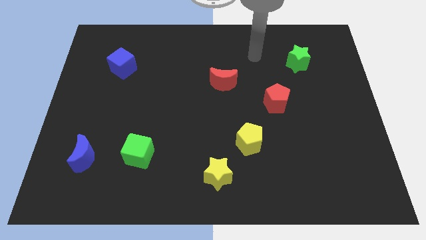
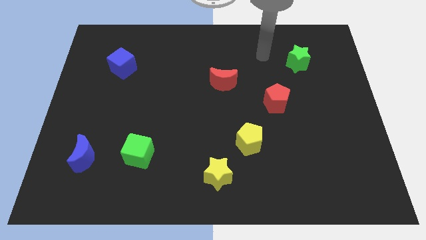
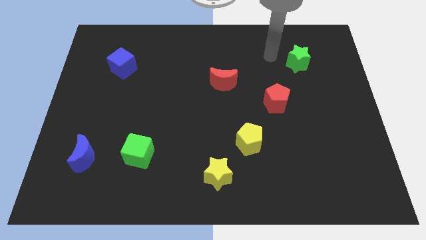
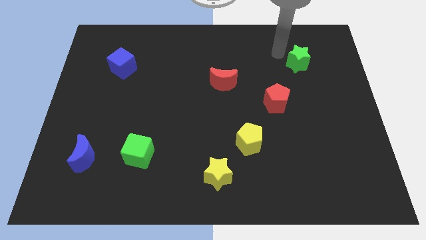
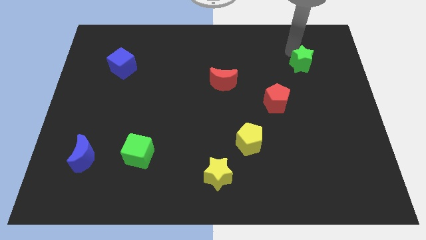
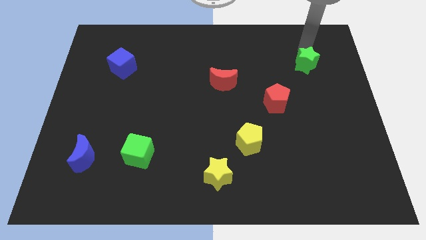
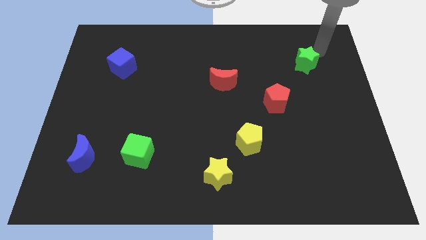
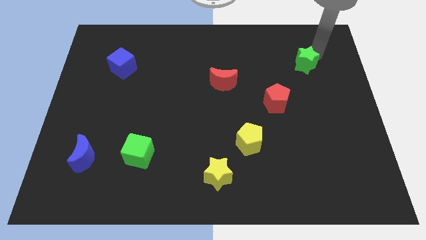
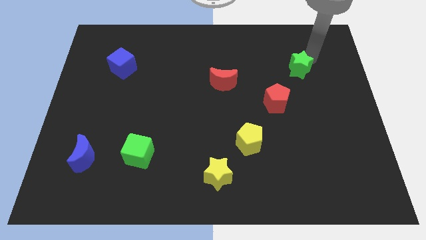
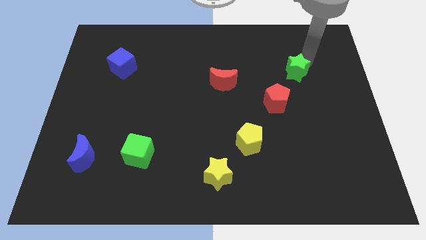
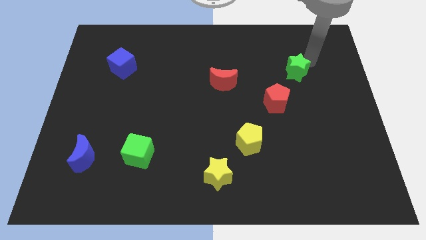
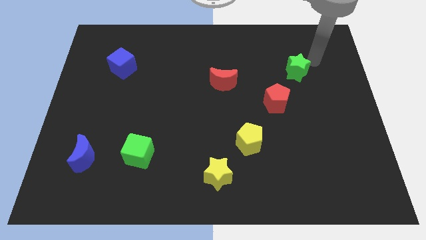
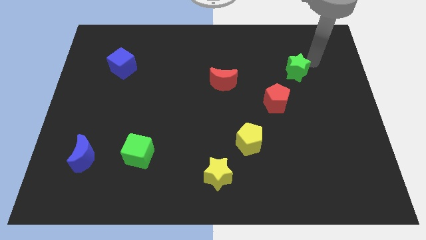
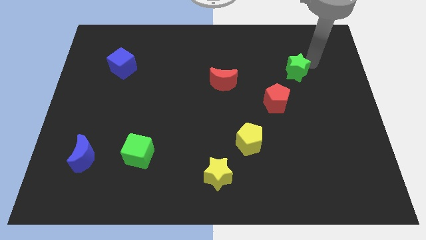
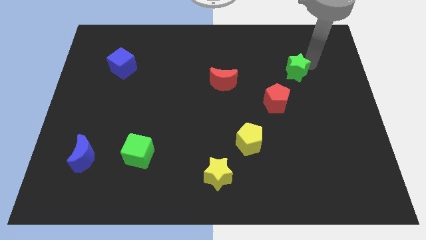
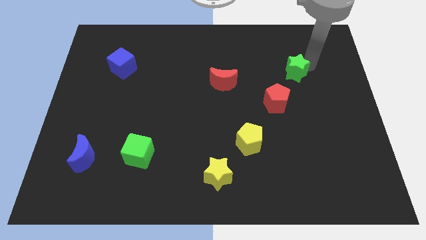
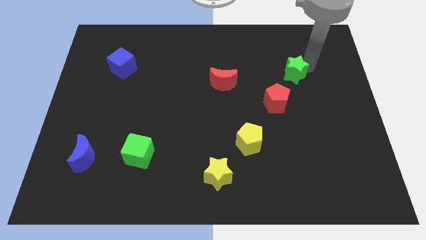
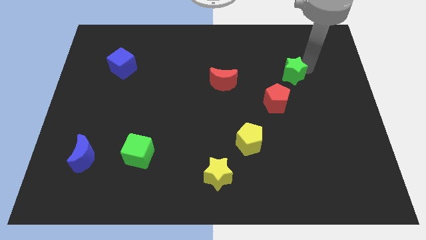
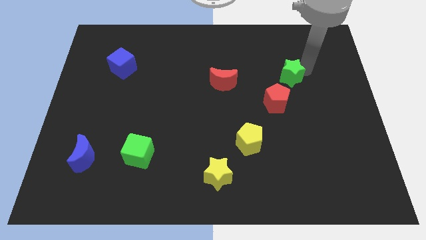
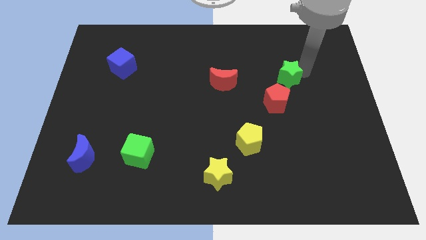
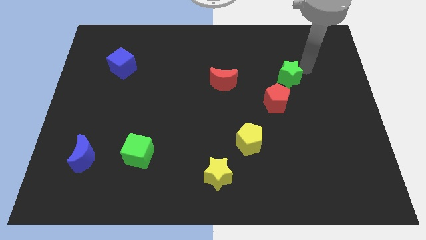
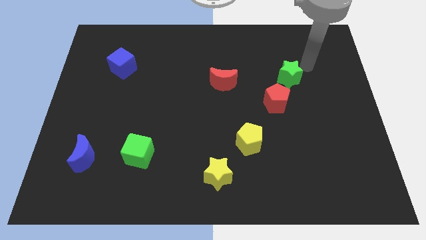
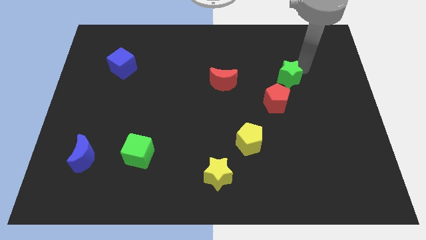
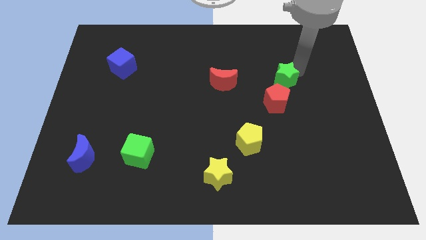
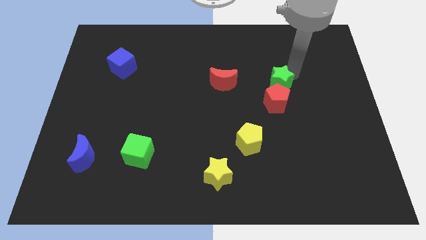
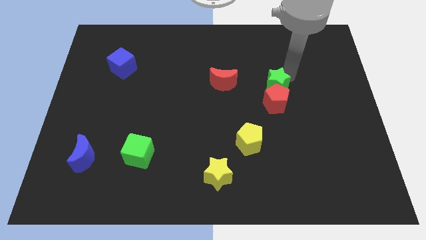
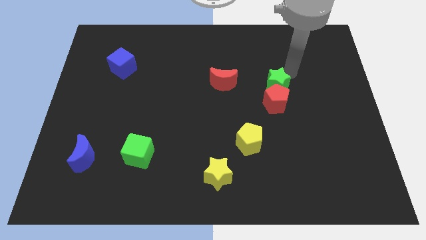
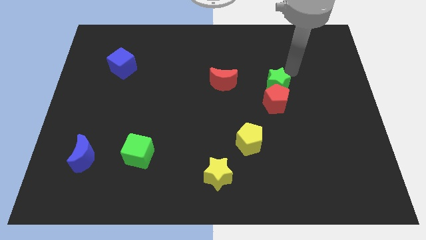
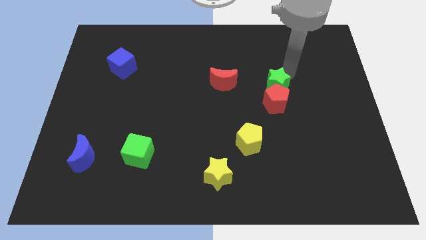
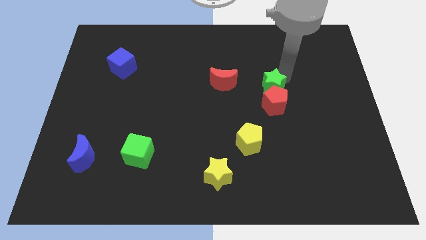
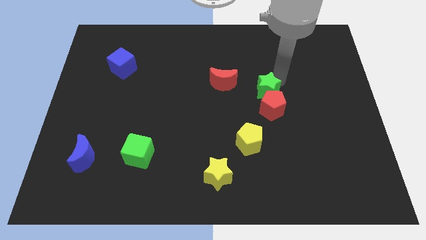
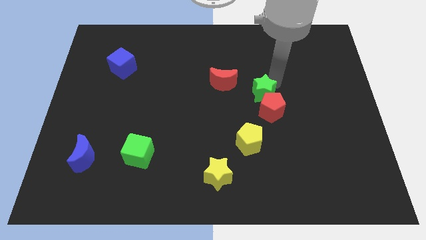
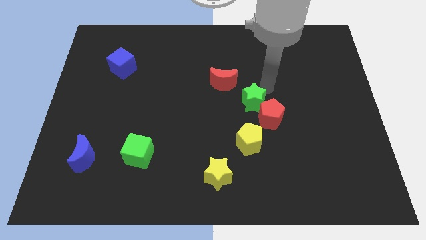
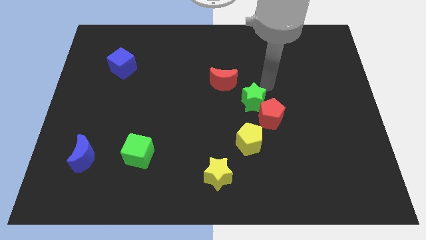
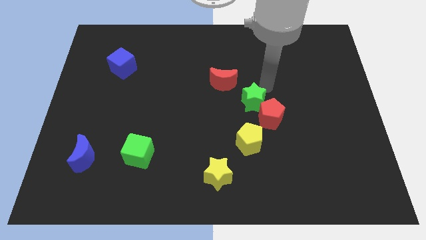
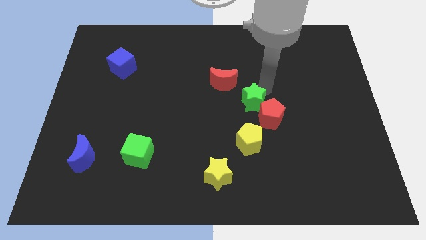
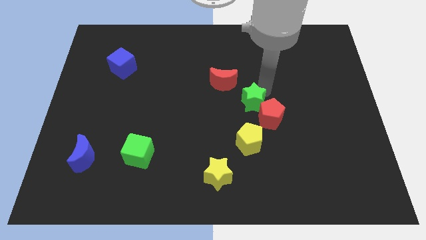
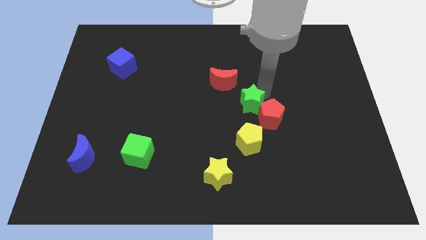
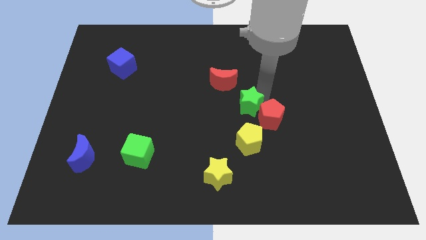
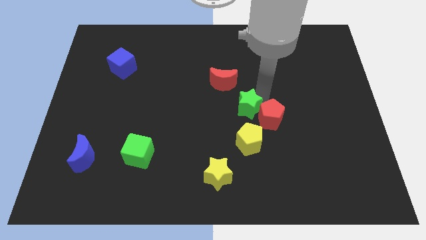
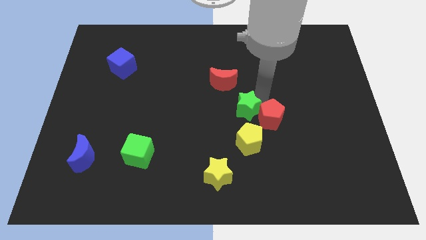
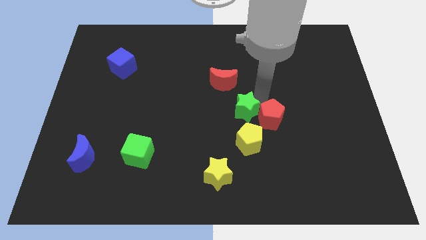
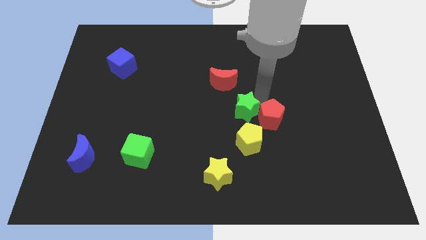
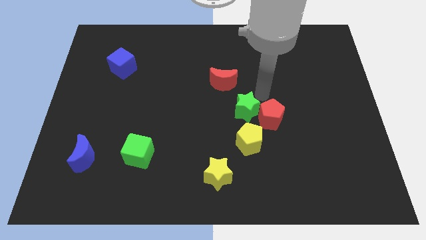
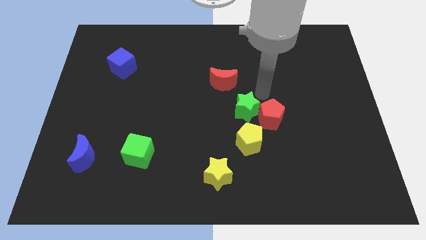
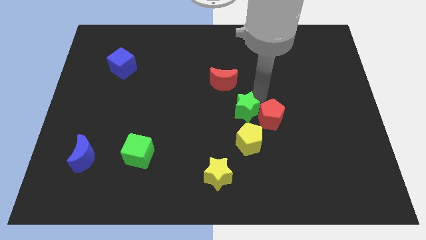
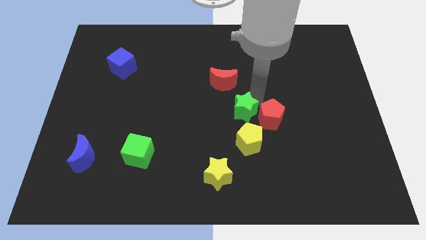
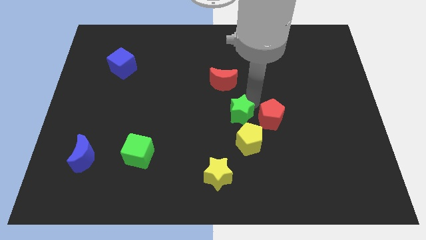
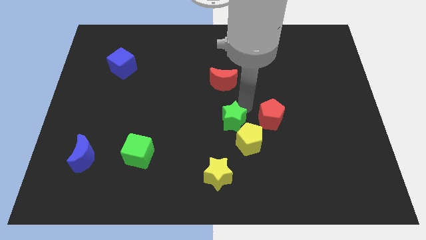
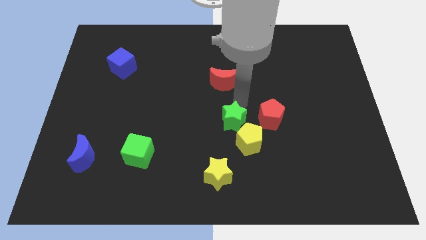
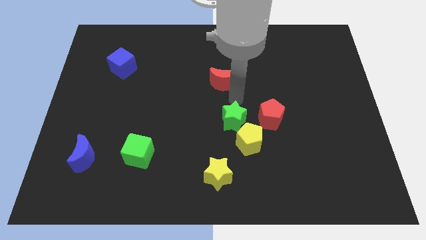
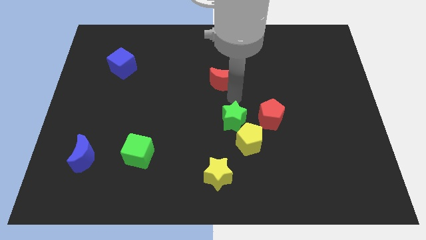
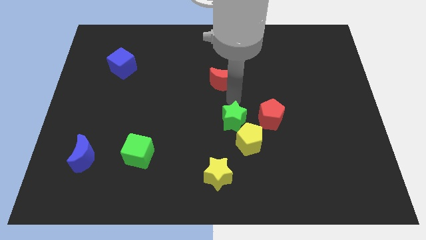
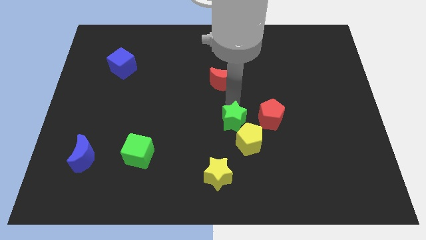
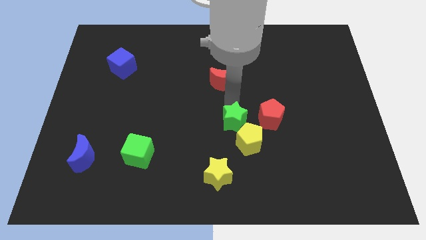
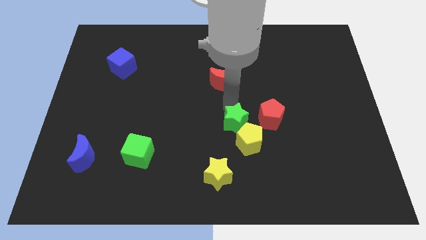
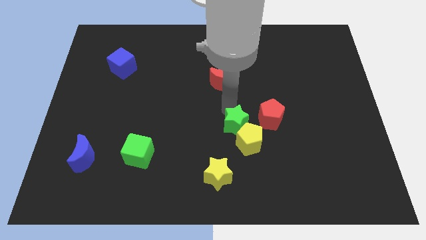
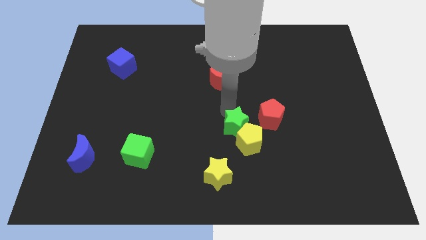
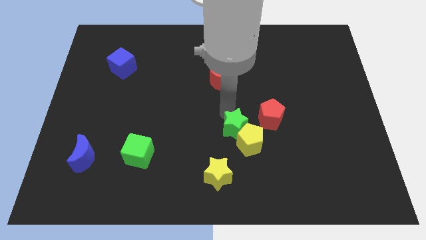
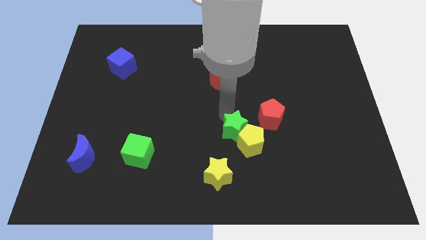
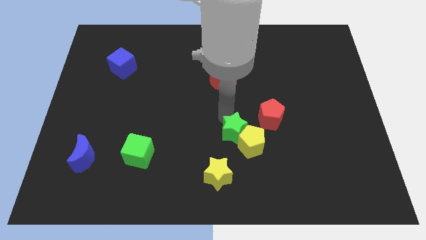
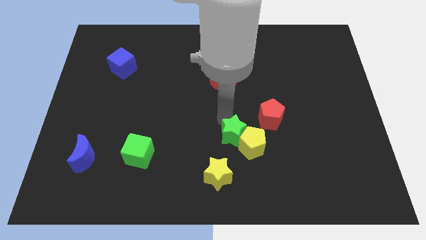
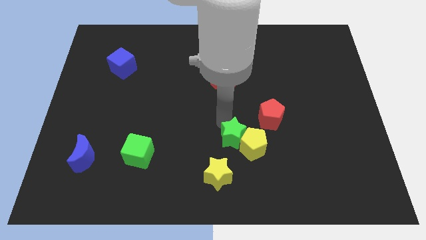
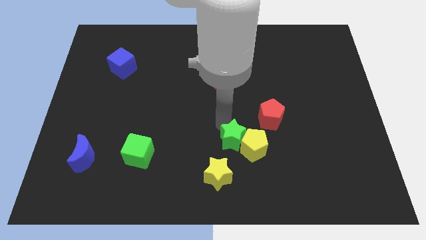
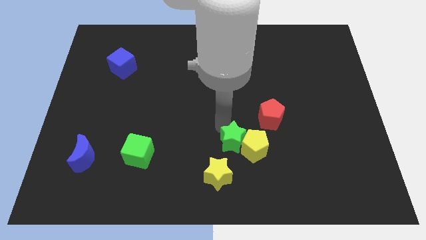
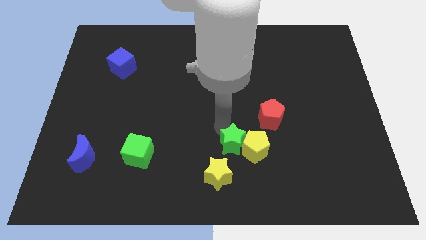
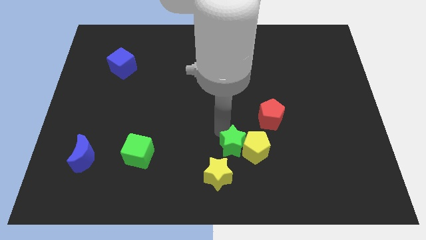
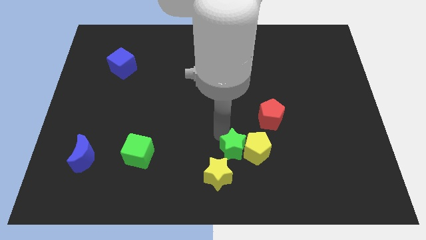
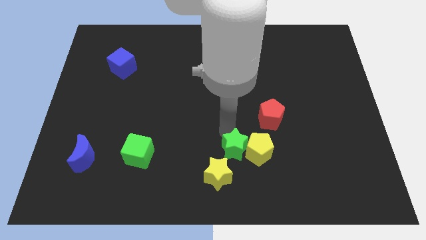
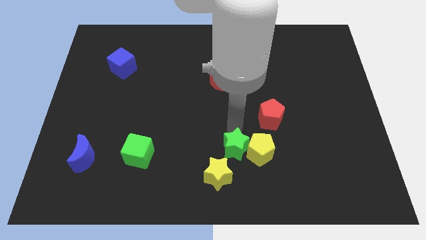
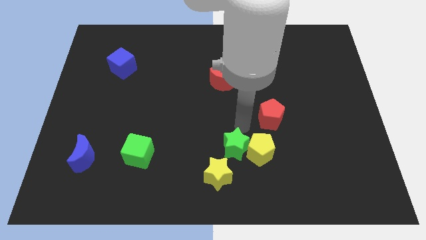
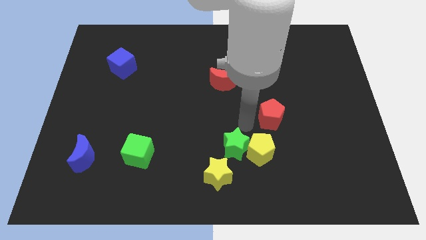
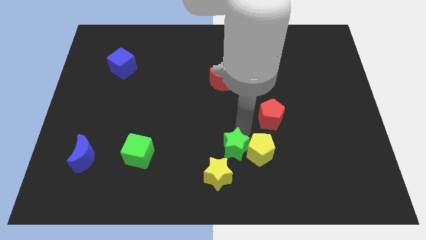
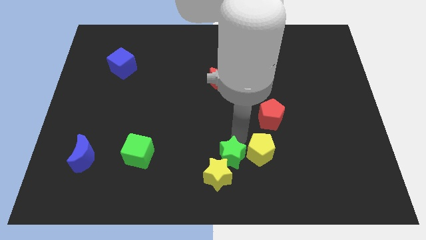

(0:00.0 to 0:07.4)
slide the green star towards the yellow star
